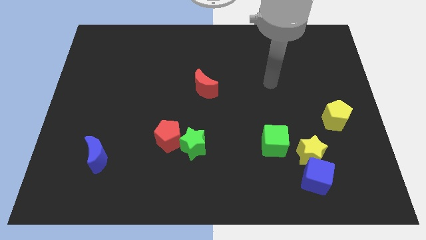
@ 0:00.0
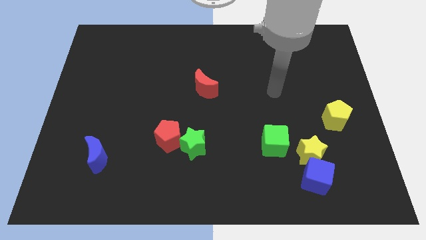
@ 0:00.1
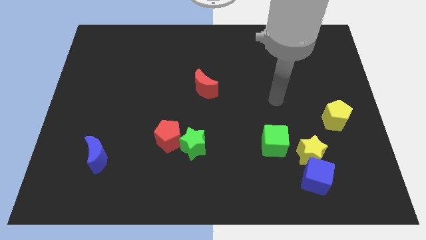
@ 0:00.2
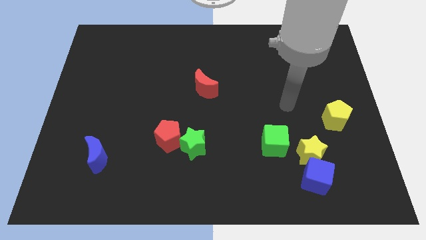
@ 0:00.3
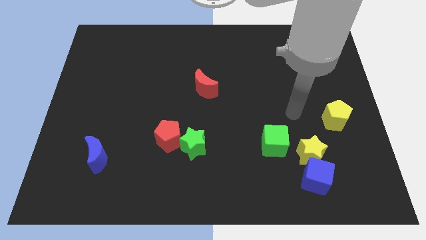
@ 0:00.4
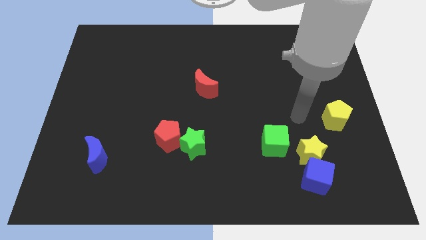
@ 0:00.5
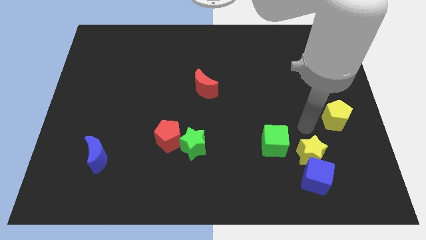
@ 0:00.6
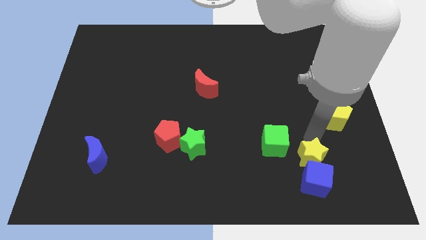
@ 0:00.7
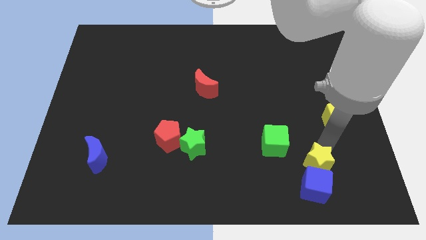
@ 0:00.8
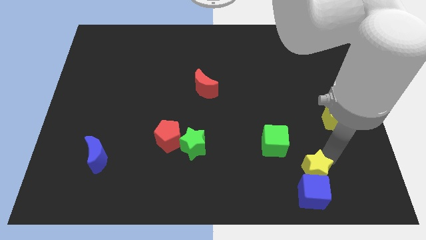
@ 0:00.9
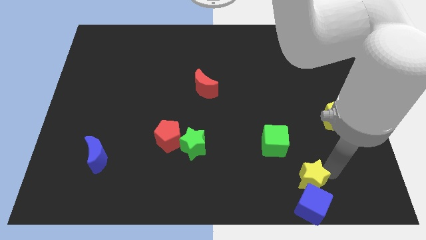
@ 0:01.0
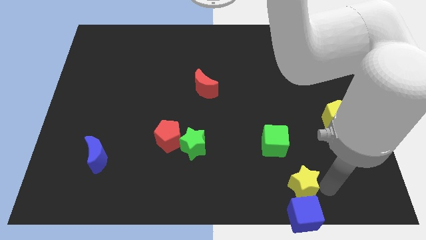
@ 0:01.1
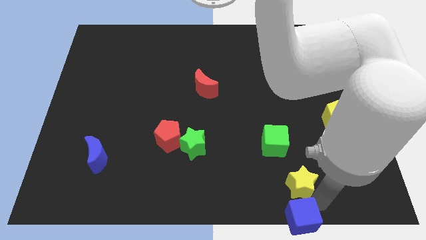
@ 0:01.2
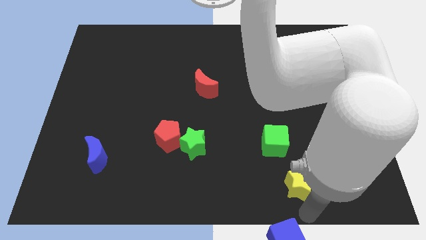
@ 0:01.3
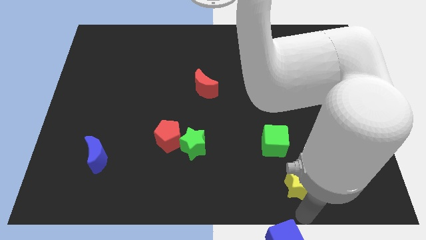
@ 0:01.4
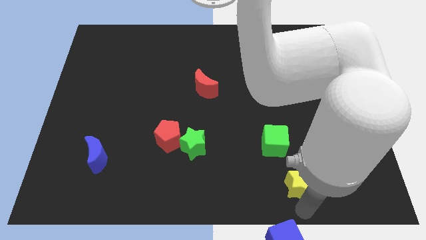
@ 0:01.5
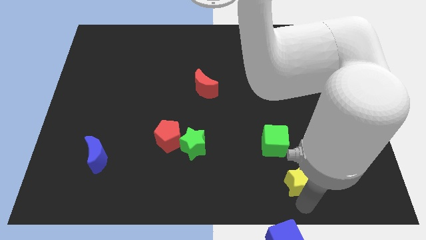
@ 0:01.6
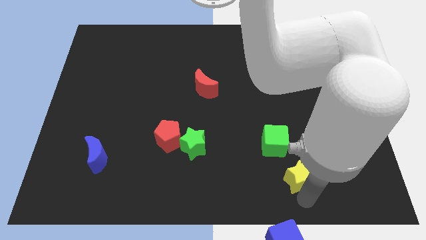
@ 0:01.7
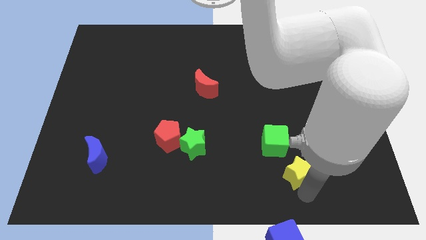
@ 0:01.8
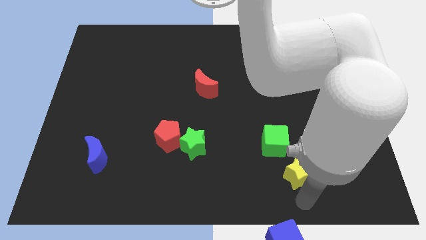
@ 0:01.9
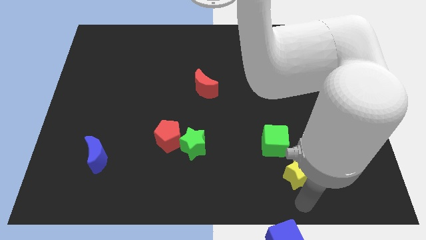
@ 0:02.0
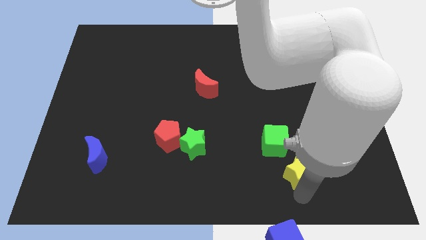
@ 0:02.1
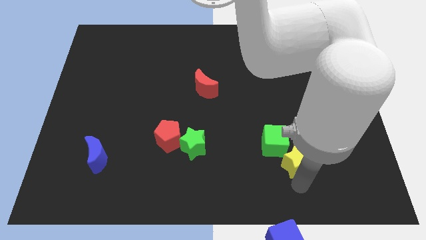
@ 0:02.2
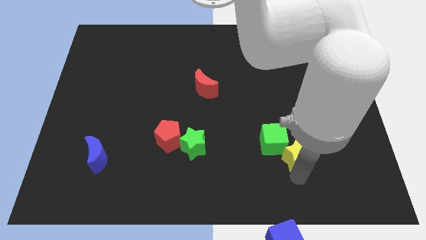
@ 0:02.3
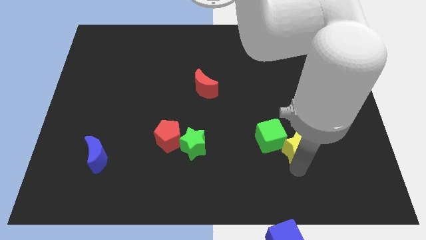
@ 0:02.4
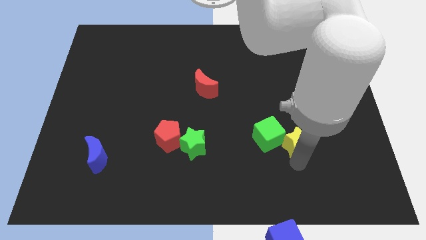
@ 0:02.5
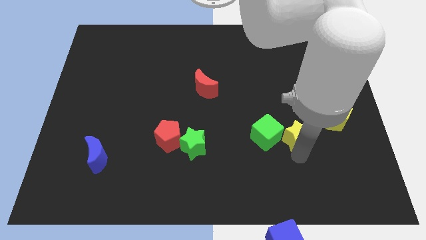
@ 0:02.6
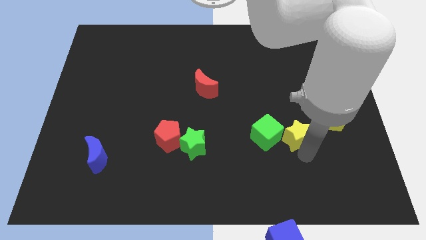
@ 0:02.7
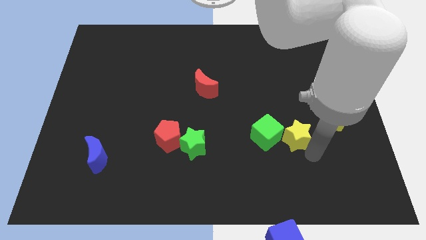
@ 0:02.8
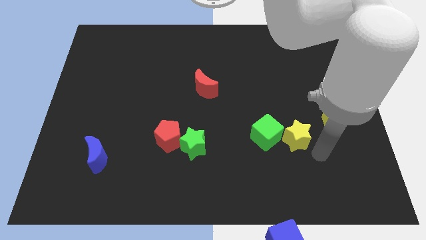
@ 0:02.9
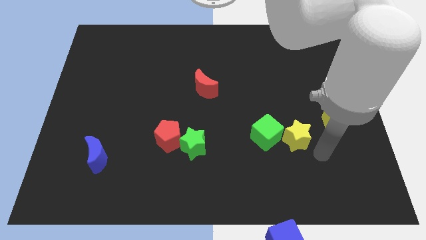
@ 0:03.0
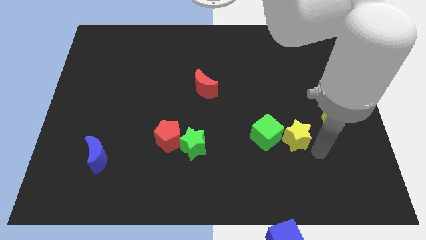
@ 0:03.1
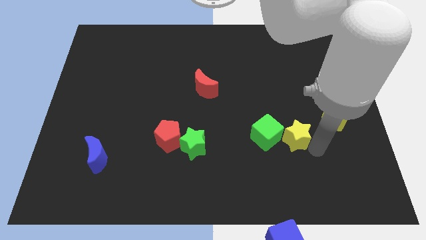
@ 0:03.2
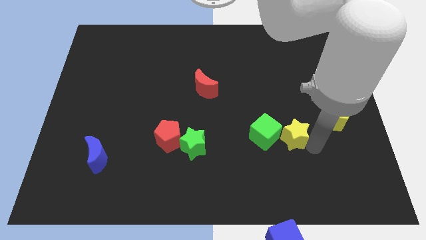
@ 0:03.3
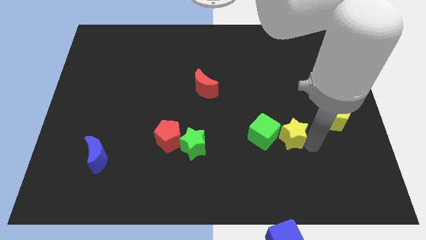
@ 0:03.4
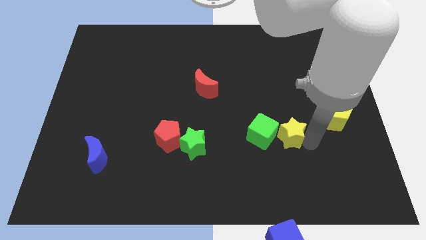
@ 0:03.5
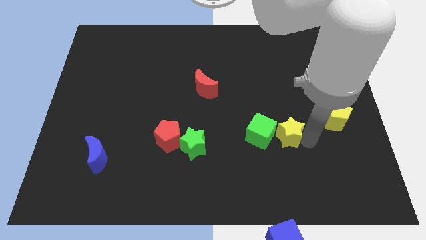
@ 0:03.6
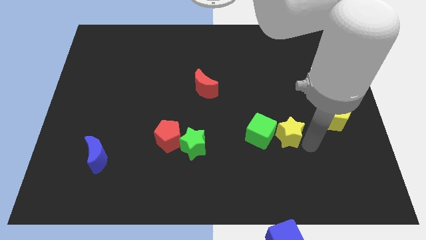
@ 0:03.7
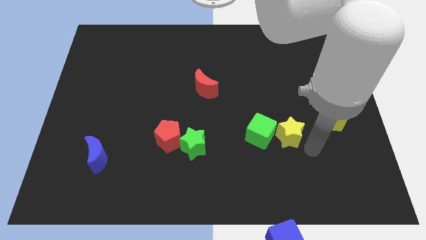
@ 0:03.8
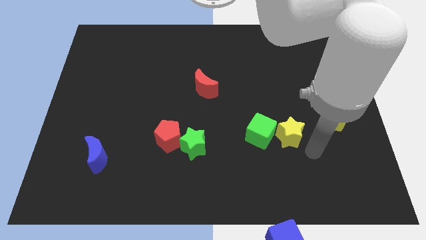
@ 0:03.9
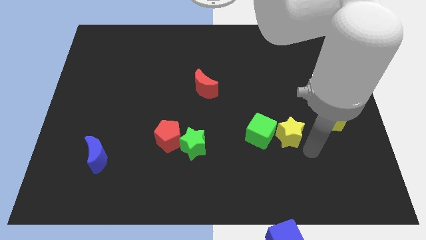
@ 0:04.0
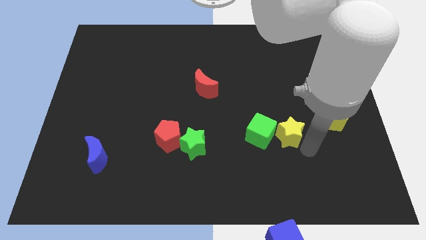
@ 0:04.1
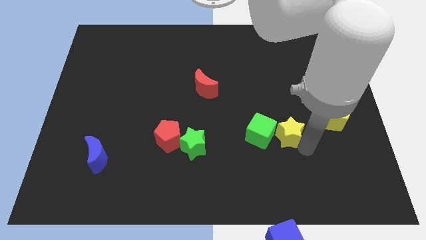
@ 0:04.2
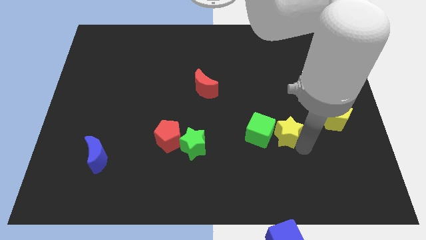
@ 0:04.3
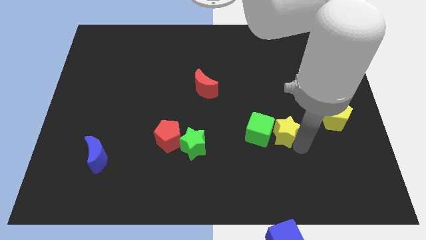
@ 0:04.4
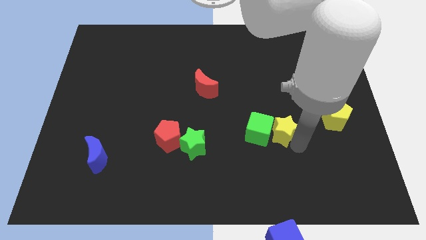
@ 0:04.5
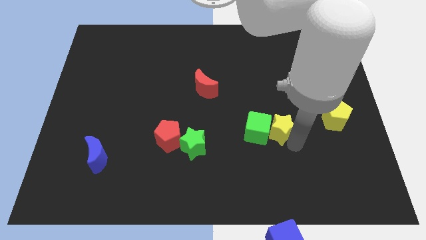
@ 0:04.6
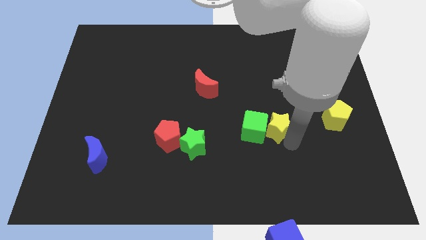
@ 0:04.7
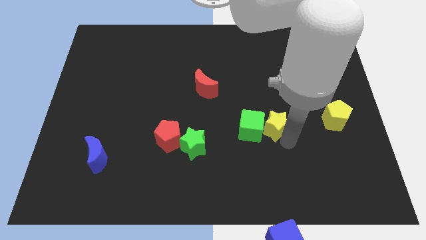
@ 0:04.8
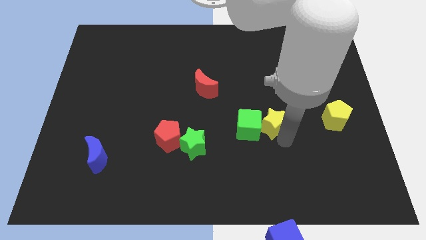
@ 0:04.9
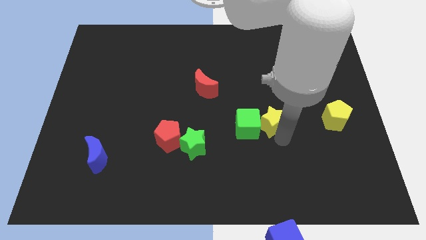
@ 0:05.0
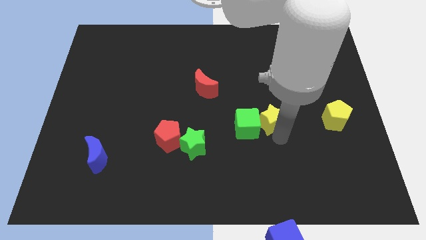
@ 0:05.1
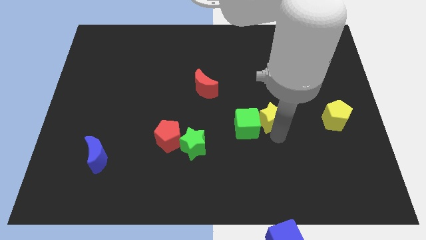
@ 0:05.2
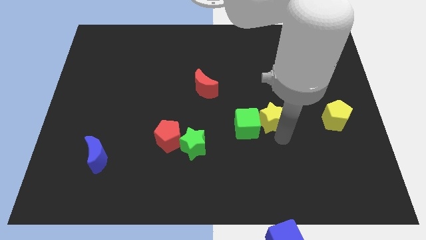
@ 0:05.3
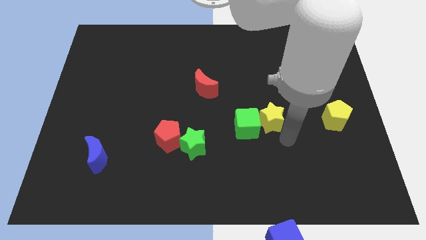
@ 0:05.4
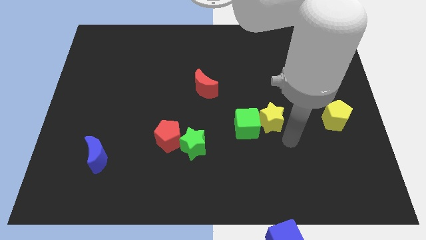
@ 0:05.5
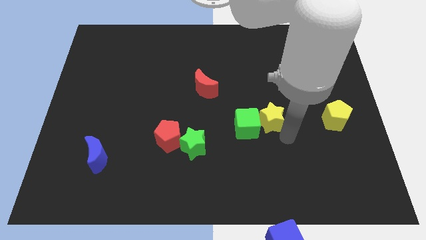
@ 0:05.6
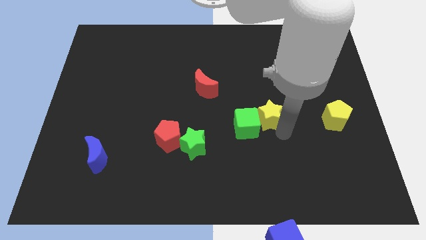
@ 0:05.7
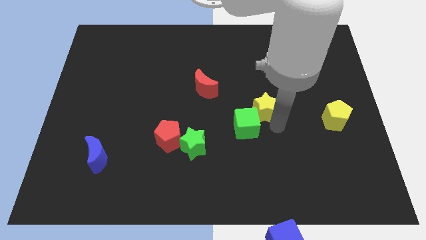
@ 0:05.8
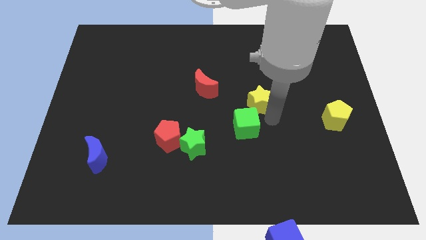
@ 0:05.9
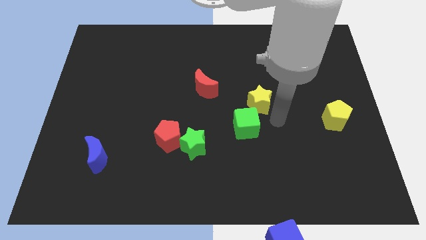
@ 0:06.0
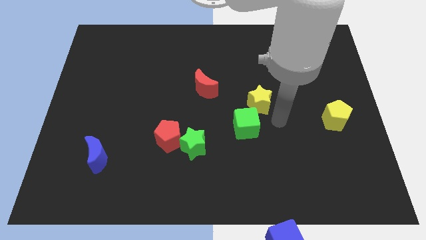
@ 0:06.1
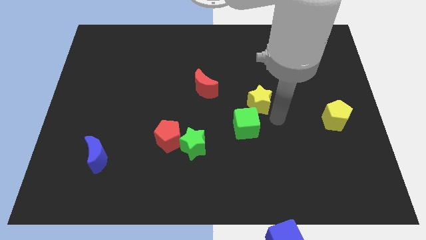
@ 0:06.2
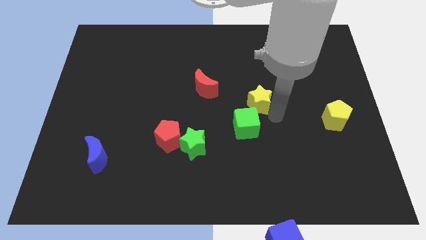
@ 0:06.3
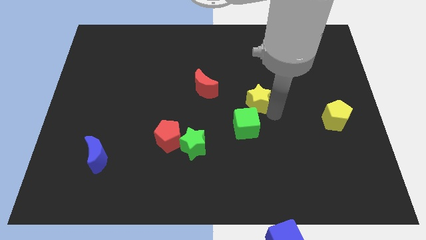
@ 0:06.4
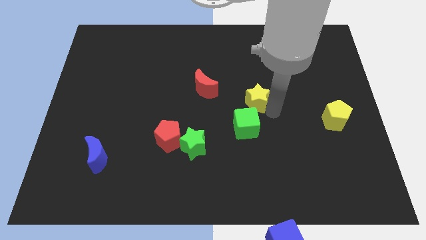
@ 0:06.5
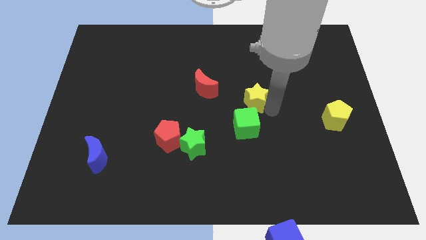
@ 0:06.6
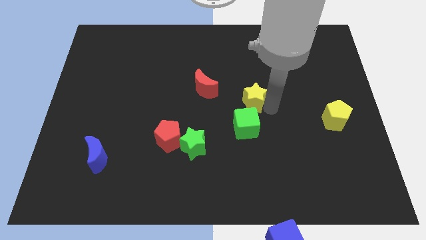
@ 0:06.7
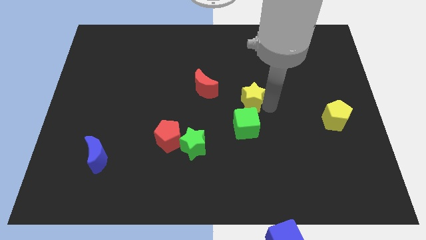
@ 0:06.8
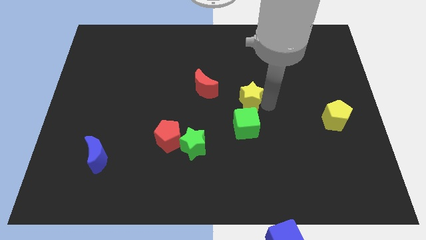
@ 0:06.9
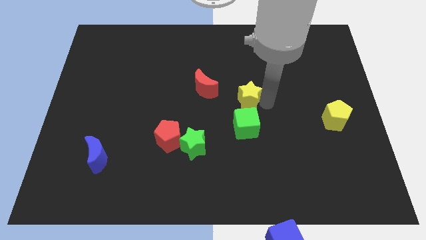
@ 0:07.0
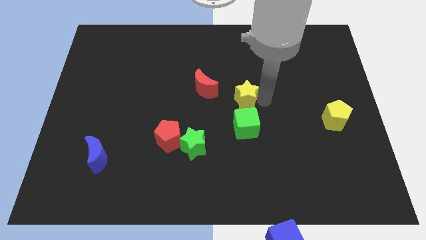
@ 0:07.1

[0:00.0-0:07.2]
slide the yellow star diagonally upwards and to the left

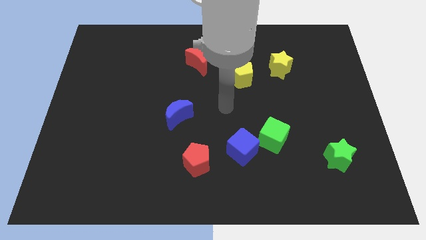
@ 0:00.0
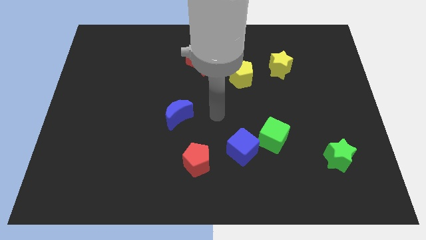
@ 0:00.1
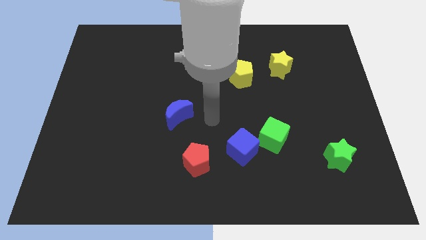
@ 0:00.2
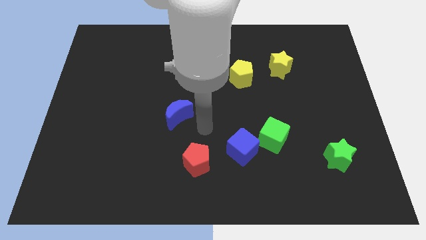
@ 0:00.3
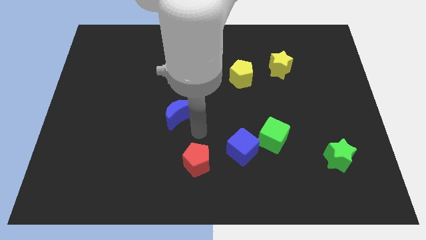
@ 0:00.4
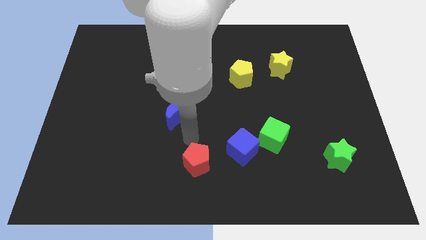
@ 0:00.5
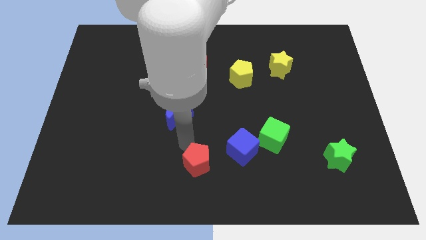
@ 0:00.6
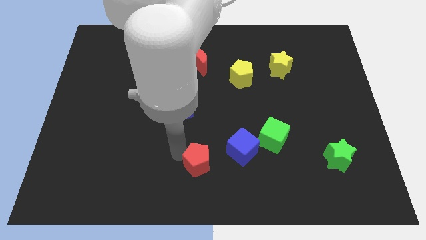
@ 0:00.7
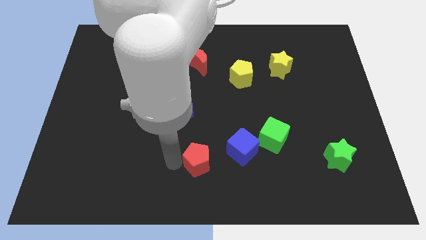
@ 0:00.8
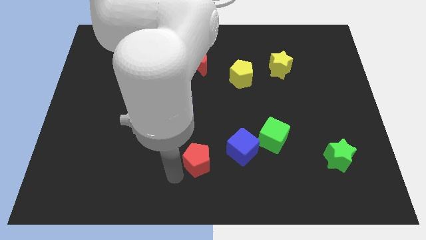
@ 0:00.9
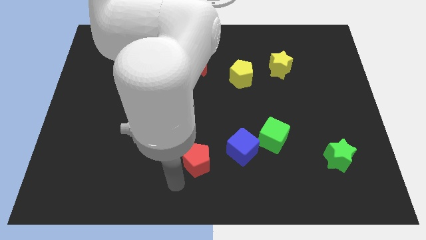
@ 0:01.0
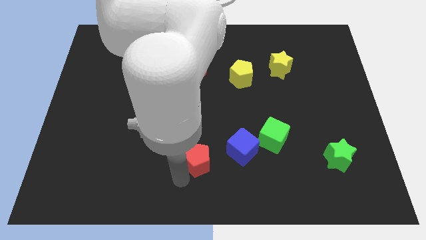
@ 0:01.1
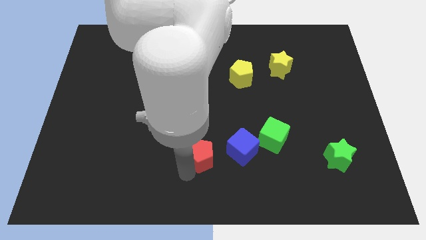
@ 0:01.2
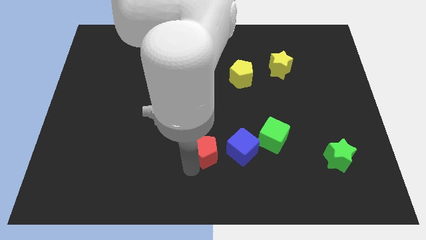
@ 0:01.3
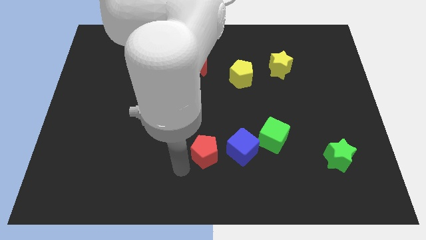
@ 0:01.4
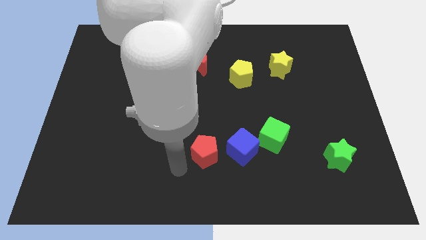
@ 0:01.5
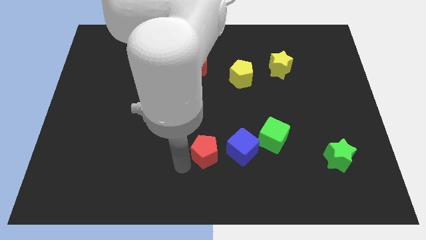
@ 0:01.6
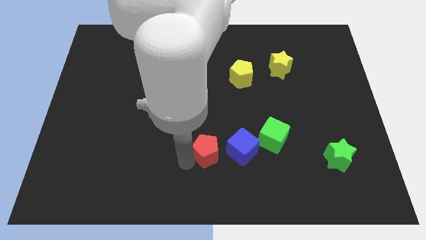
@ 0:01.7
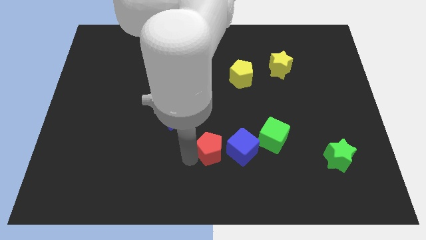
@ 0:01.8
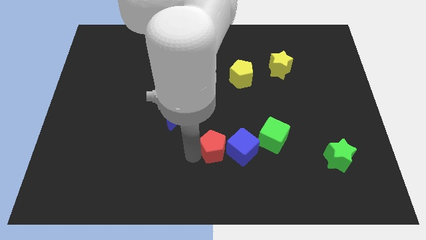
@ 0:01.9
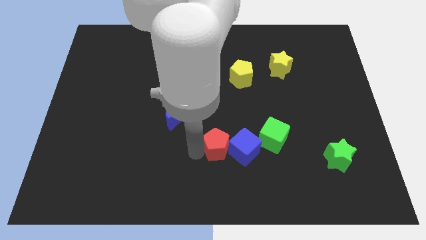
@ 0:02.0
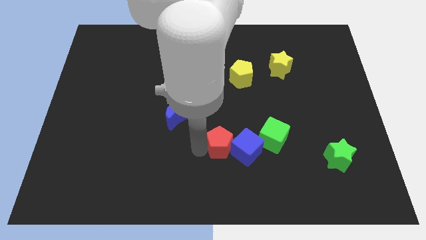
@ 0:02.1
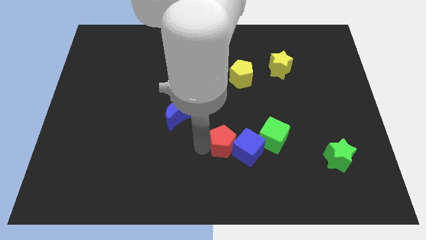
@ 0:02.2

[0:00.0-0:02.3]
slightly move the red pentagon upwards and to the right diagonally
